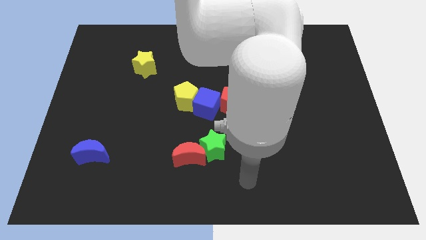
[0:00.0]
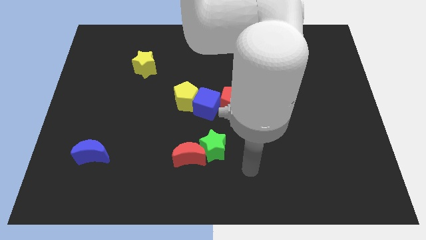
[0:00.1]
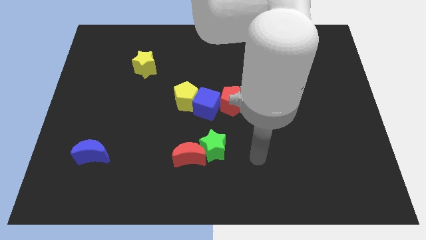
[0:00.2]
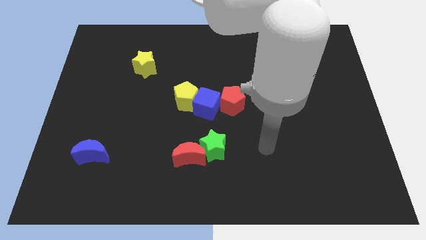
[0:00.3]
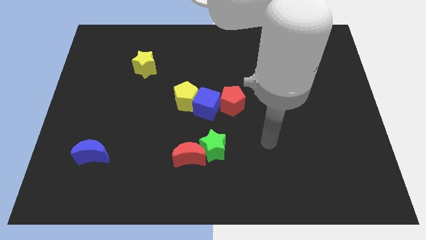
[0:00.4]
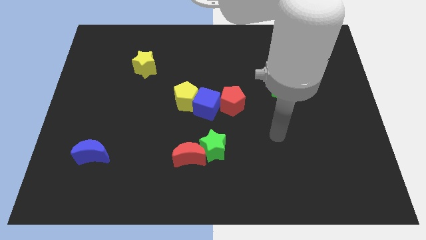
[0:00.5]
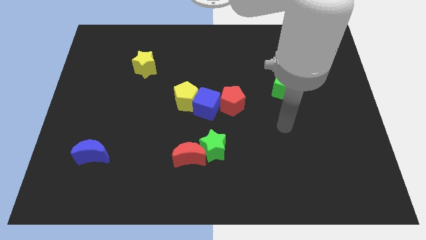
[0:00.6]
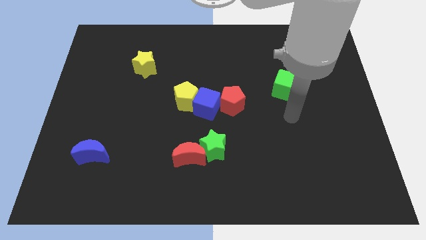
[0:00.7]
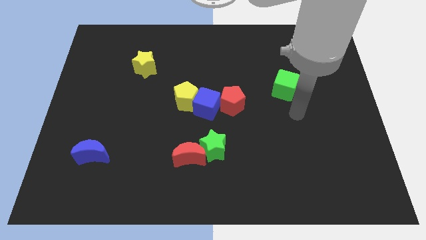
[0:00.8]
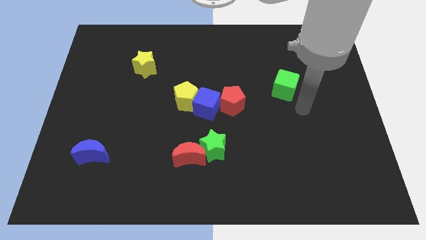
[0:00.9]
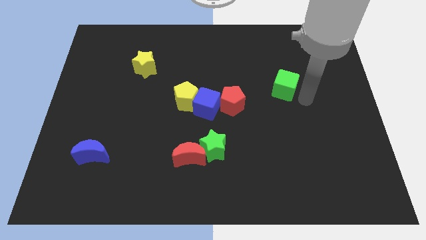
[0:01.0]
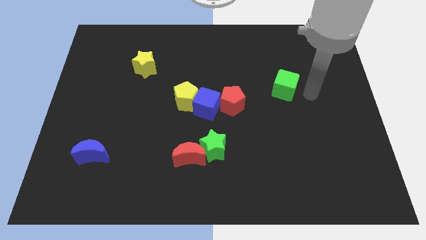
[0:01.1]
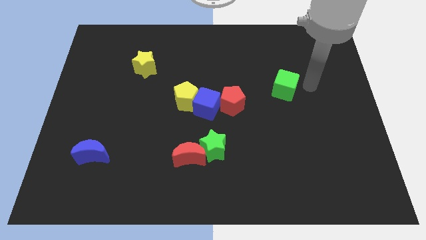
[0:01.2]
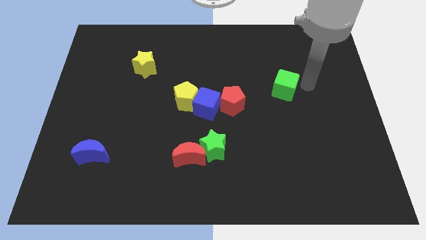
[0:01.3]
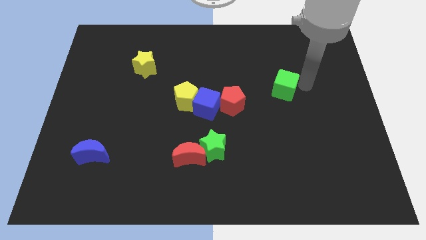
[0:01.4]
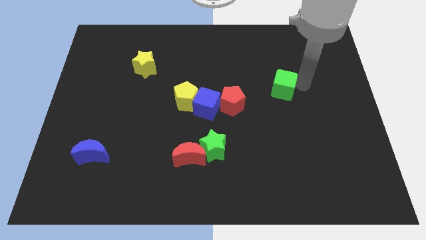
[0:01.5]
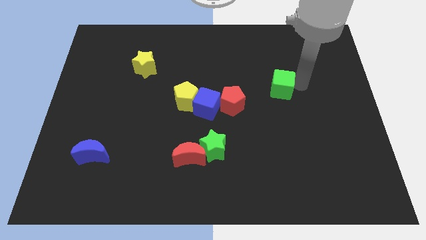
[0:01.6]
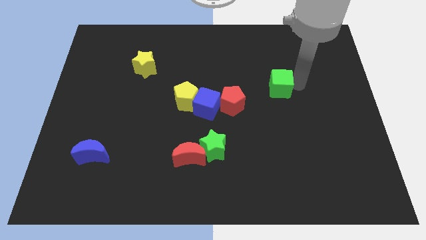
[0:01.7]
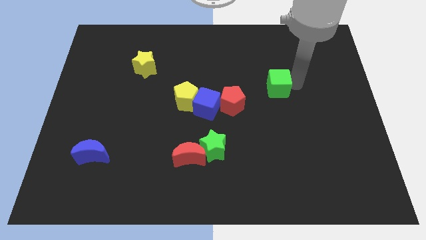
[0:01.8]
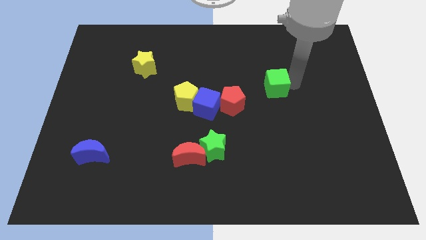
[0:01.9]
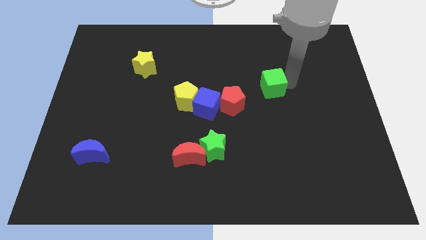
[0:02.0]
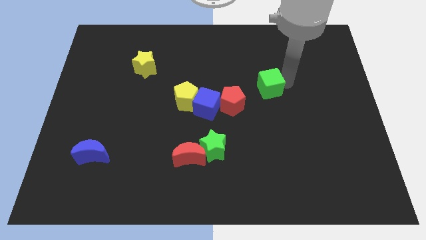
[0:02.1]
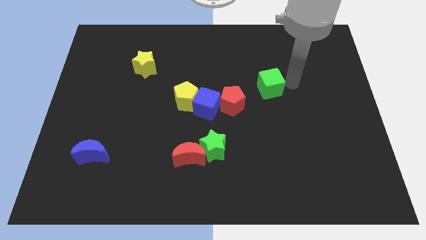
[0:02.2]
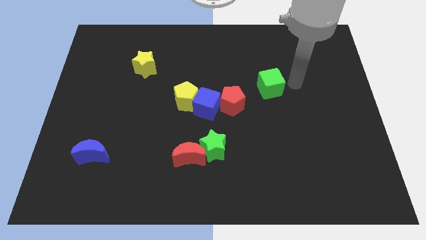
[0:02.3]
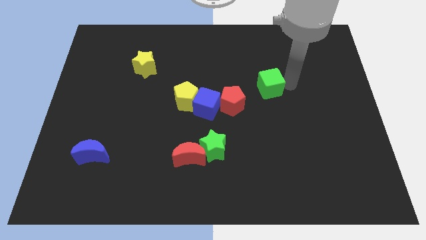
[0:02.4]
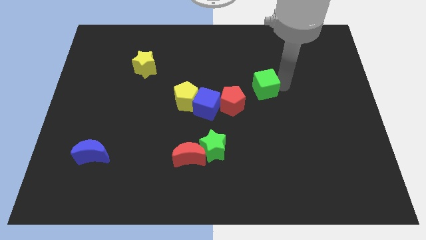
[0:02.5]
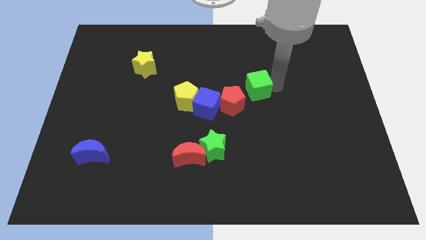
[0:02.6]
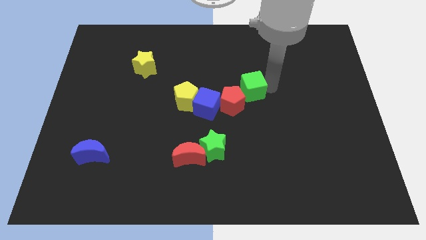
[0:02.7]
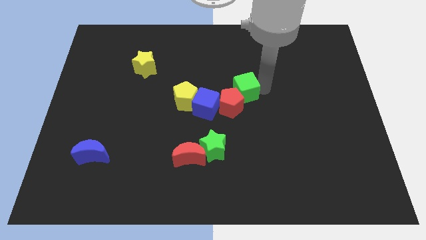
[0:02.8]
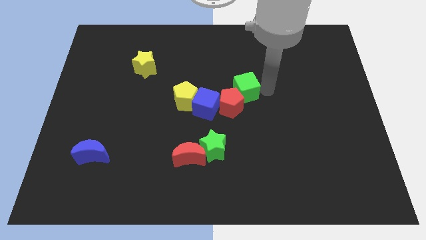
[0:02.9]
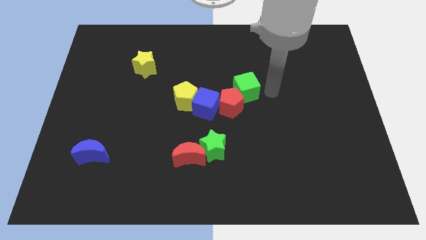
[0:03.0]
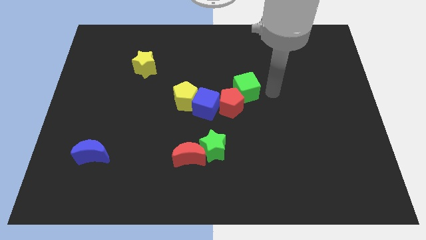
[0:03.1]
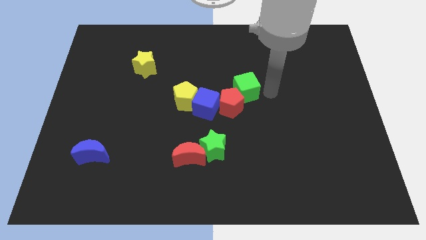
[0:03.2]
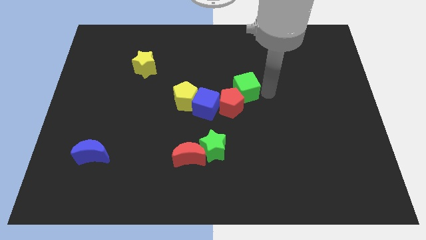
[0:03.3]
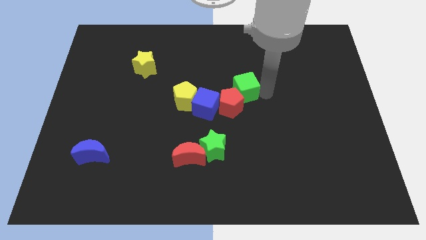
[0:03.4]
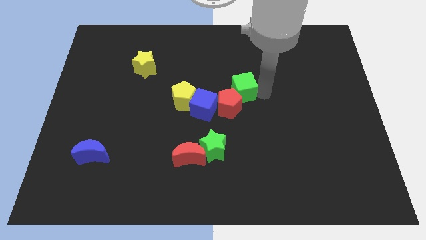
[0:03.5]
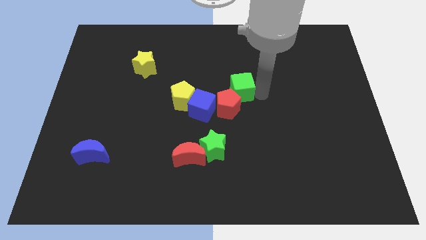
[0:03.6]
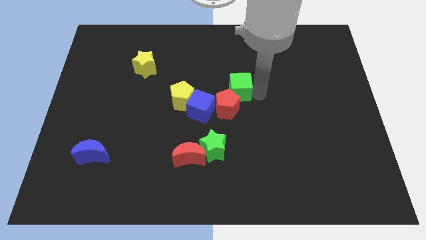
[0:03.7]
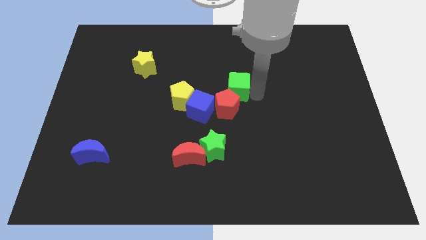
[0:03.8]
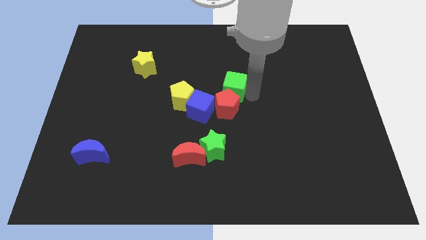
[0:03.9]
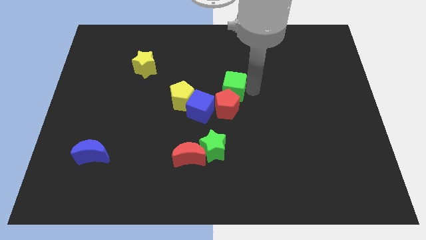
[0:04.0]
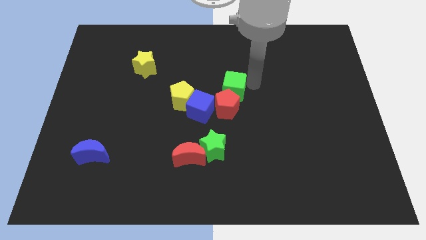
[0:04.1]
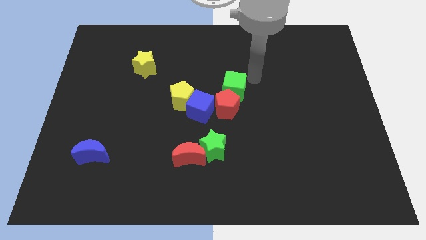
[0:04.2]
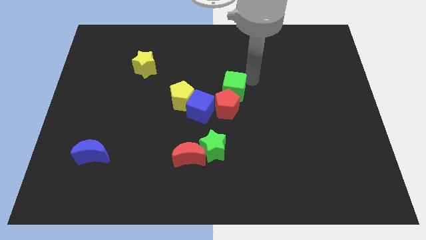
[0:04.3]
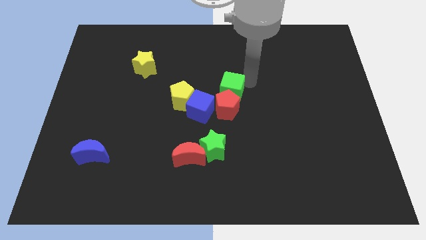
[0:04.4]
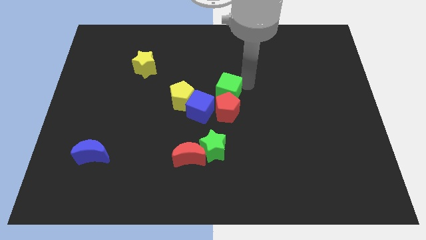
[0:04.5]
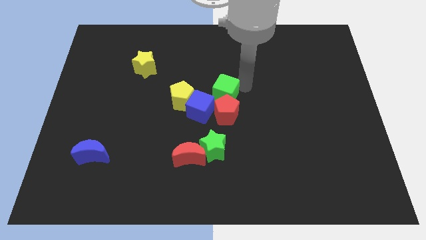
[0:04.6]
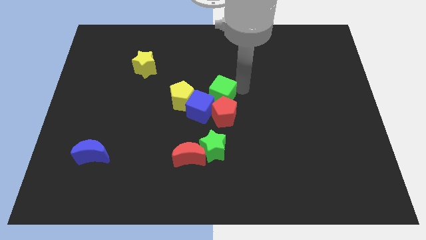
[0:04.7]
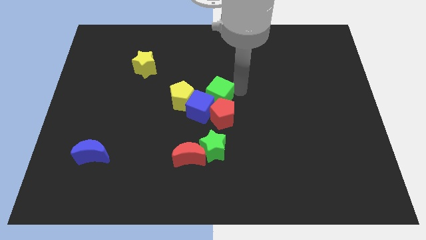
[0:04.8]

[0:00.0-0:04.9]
slide the green cube to the blue cube

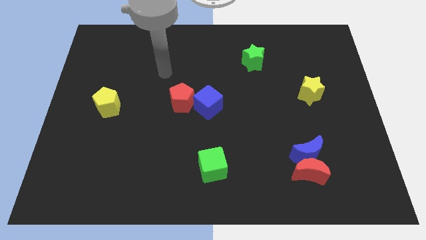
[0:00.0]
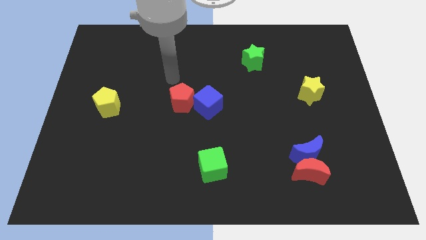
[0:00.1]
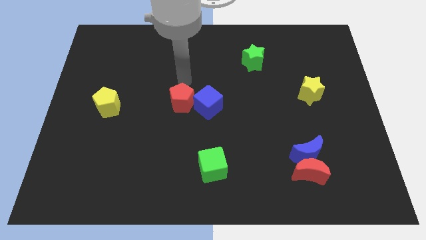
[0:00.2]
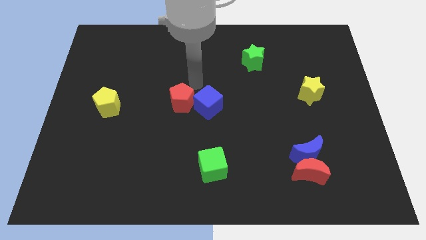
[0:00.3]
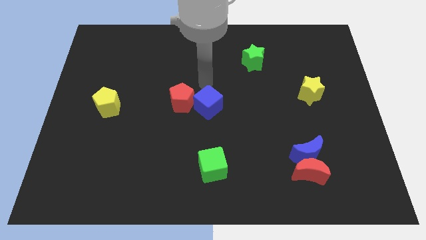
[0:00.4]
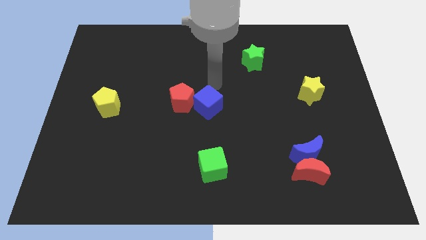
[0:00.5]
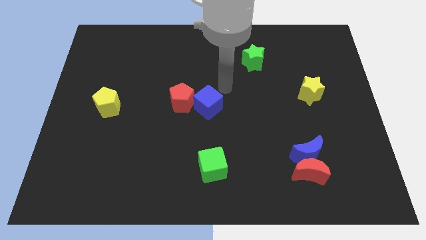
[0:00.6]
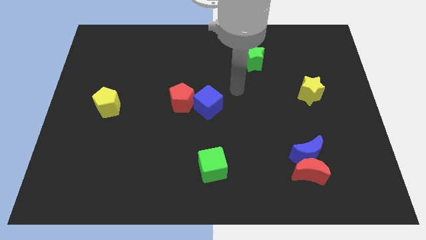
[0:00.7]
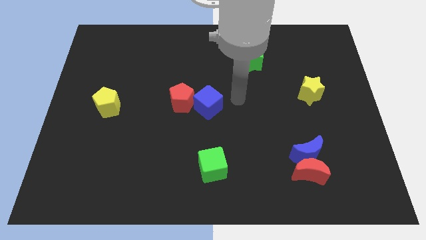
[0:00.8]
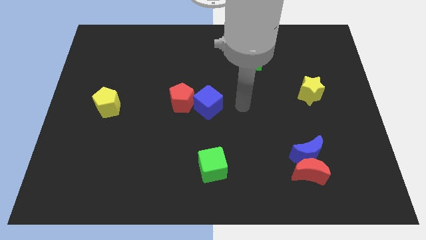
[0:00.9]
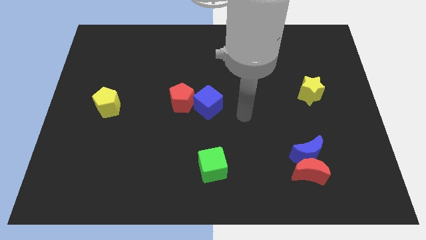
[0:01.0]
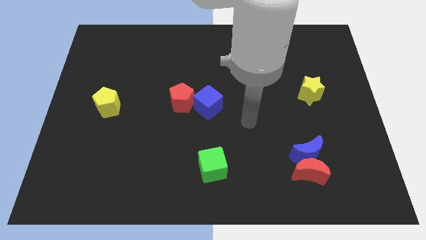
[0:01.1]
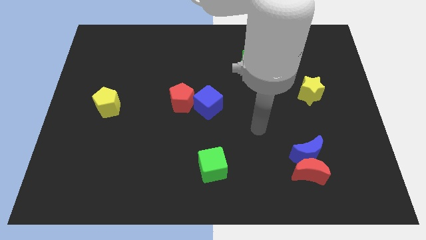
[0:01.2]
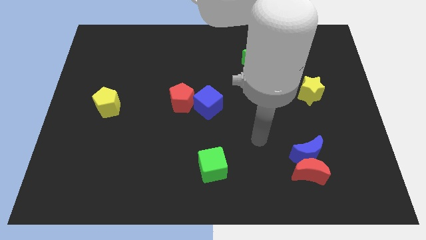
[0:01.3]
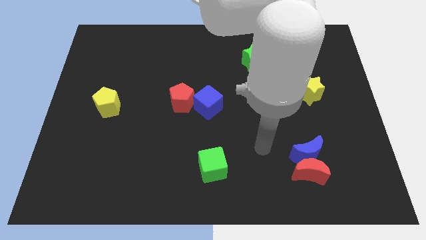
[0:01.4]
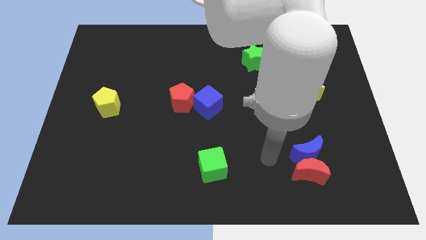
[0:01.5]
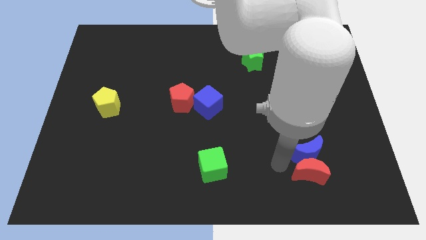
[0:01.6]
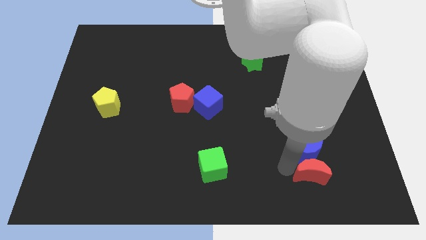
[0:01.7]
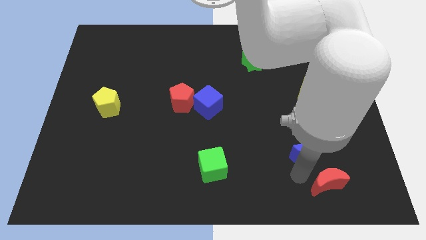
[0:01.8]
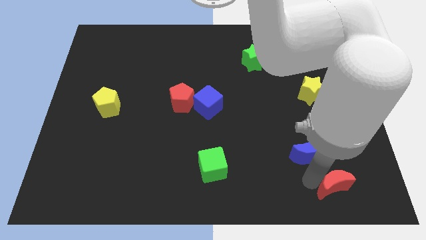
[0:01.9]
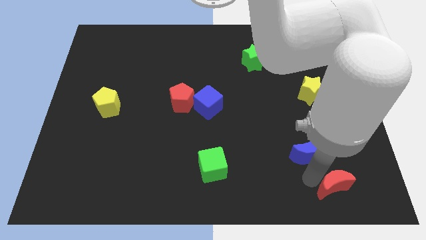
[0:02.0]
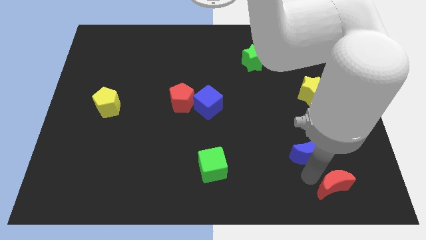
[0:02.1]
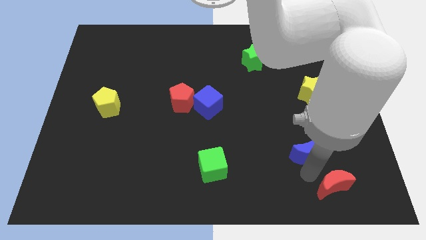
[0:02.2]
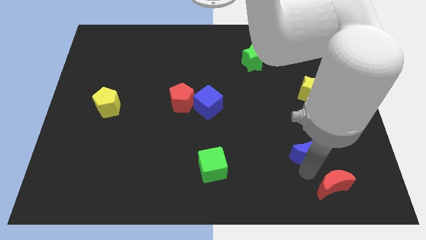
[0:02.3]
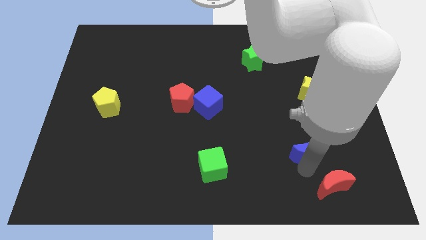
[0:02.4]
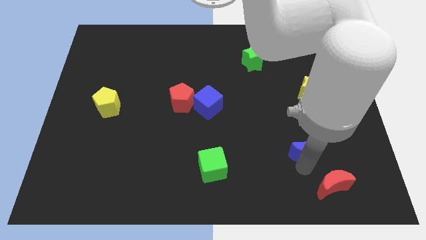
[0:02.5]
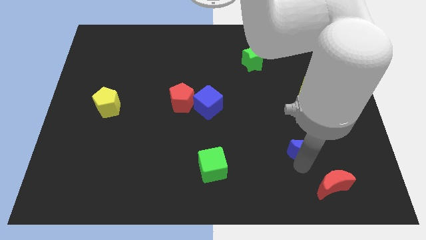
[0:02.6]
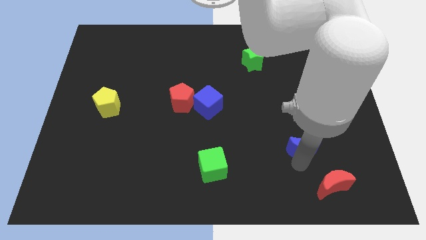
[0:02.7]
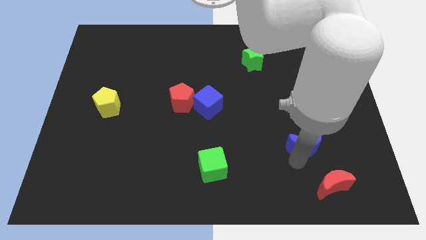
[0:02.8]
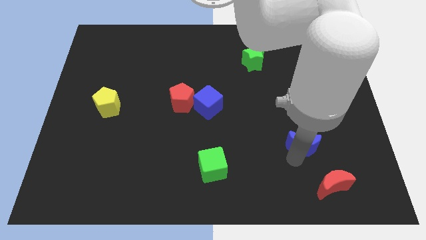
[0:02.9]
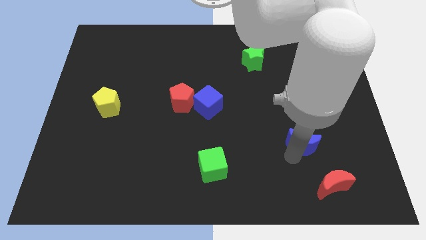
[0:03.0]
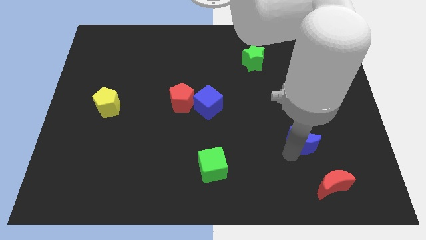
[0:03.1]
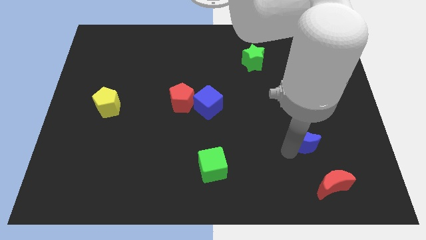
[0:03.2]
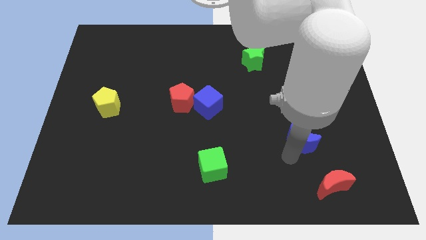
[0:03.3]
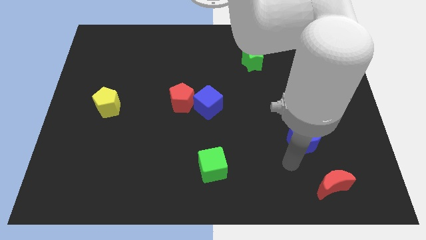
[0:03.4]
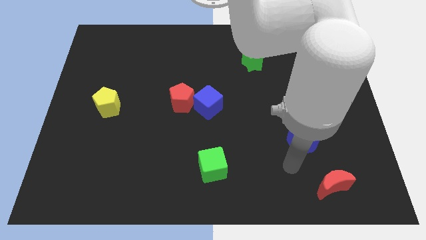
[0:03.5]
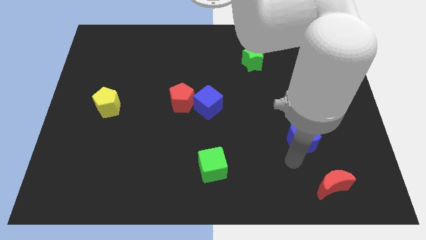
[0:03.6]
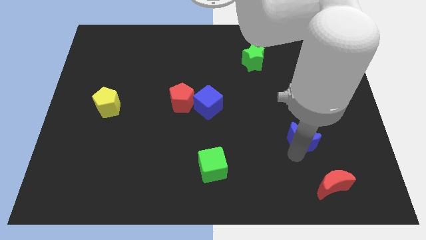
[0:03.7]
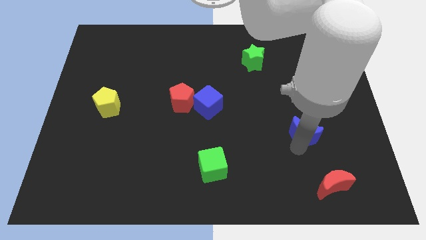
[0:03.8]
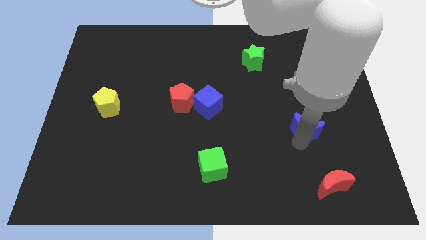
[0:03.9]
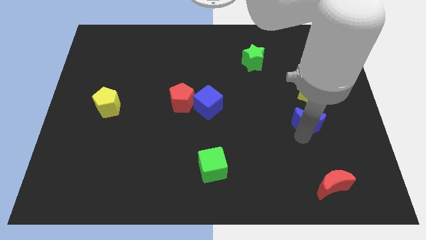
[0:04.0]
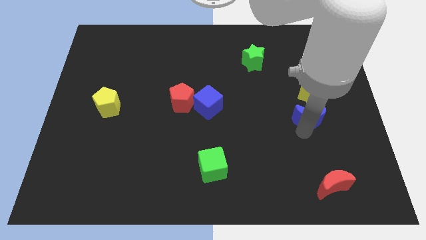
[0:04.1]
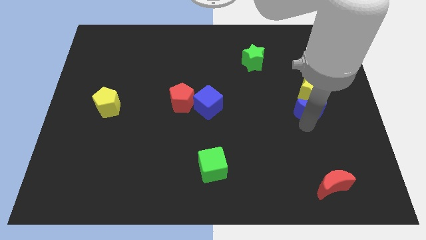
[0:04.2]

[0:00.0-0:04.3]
push the blue moon next to the yellow star
